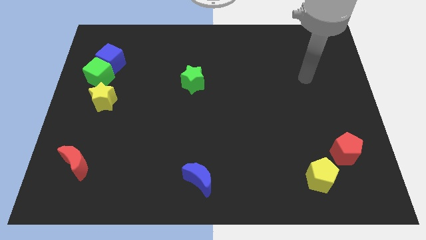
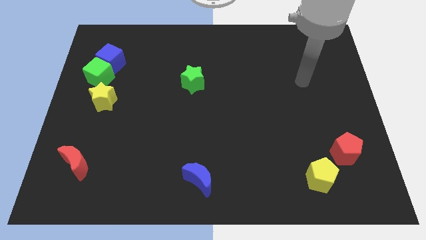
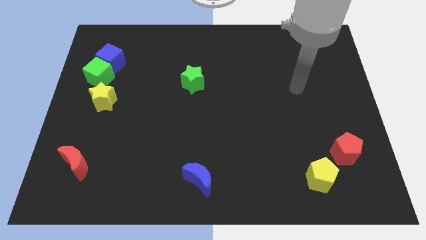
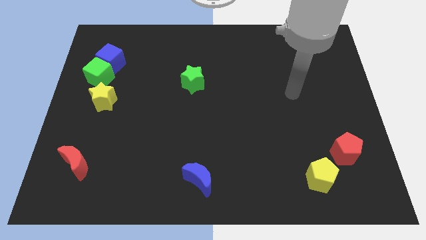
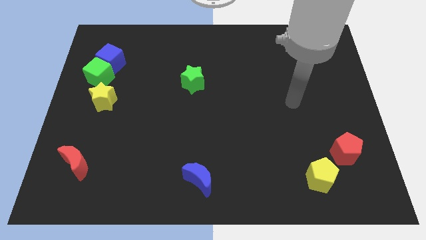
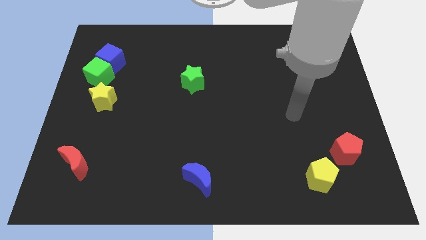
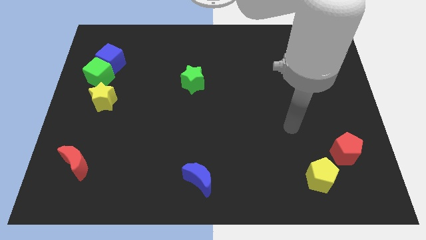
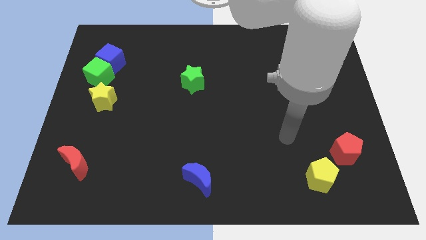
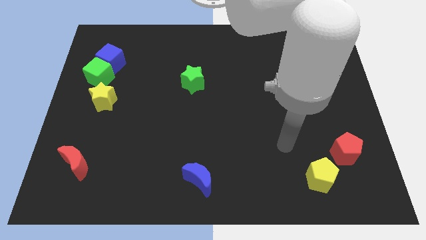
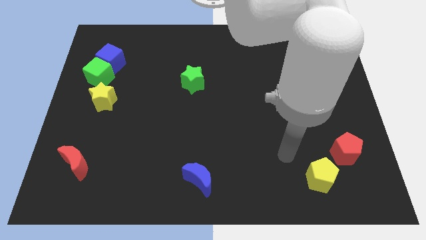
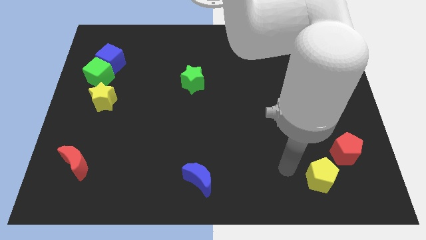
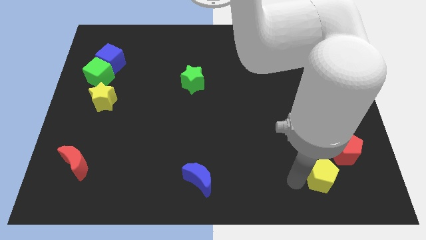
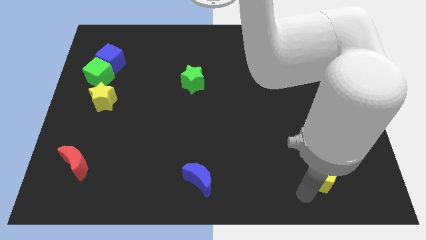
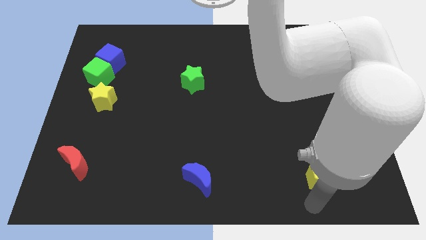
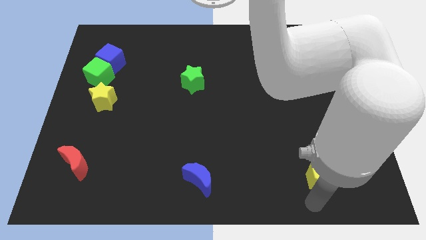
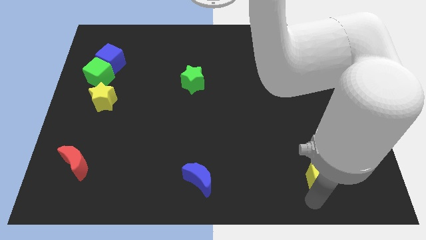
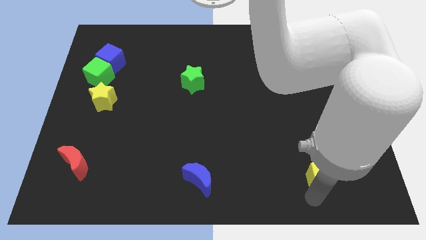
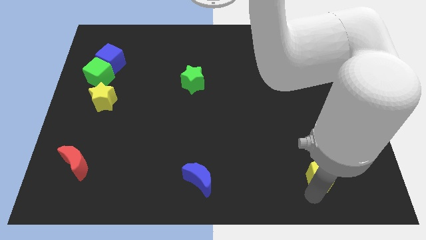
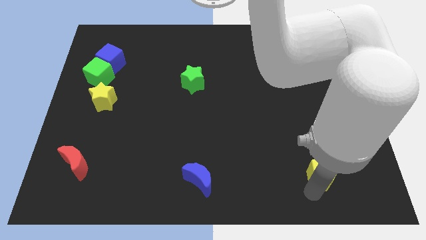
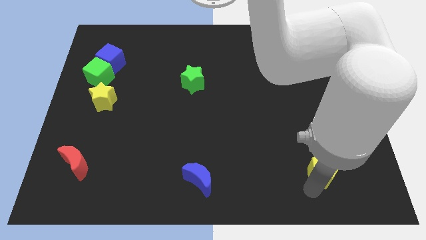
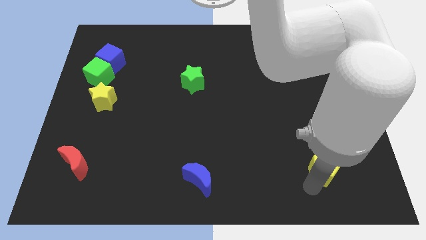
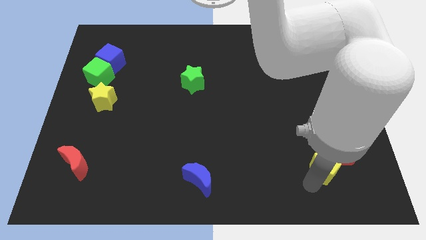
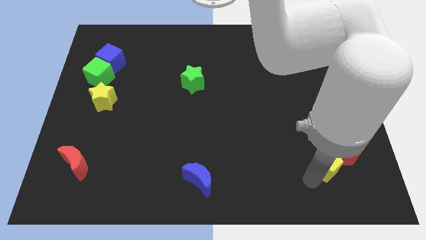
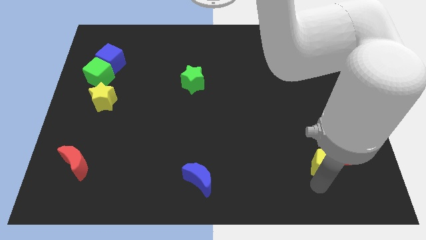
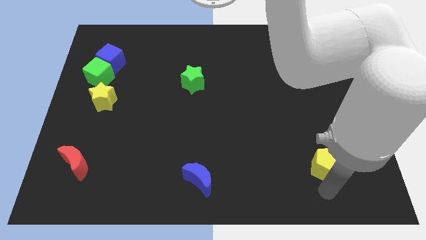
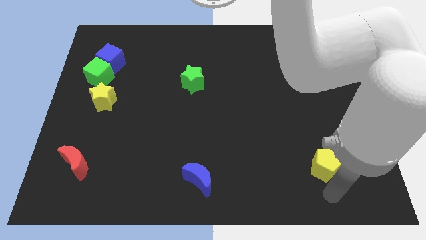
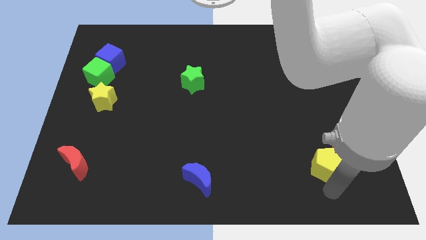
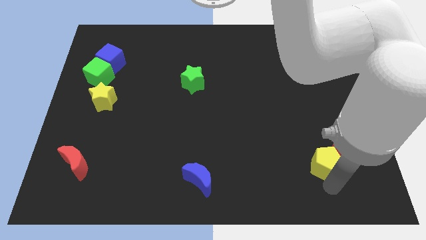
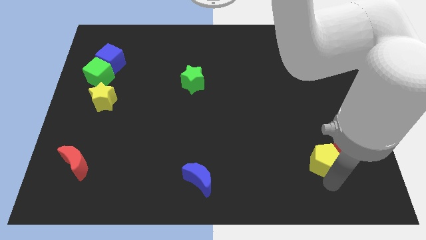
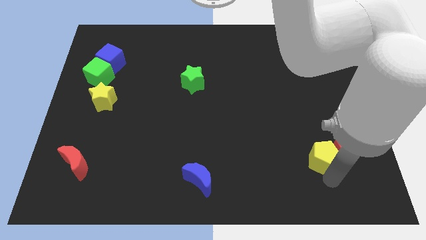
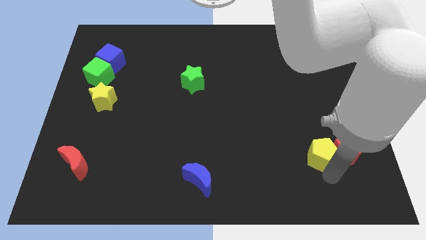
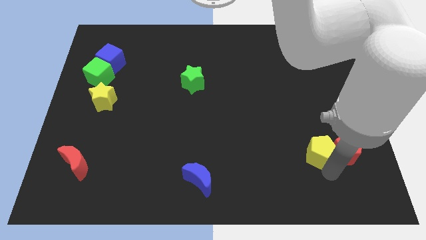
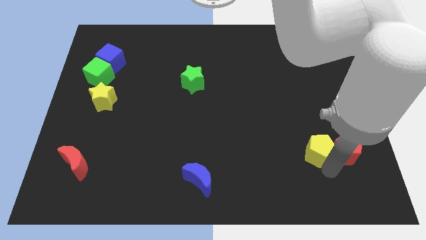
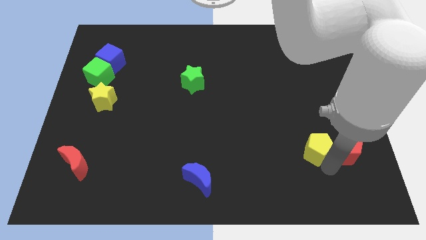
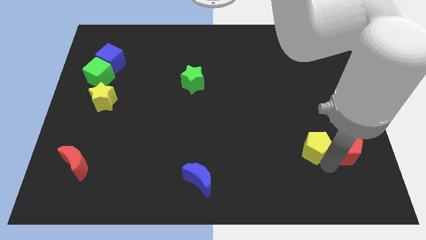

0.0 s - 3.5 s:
slightly move the yellow pentagon upwards

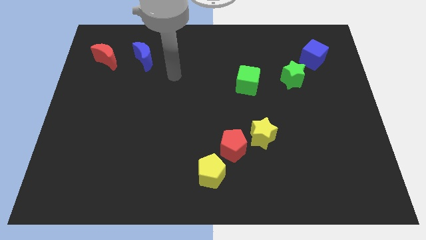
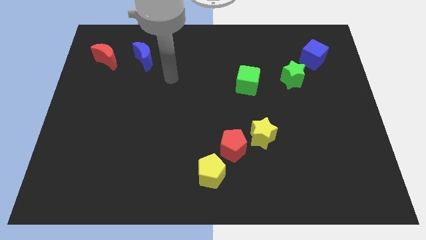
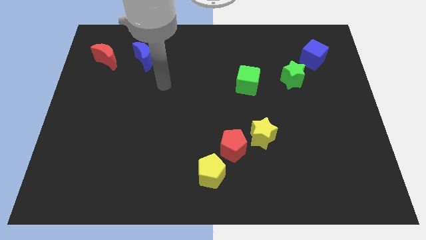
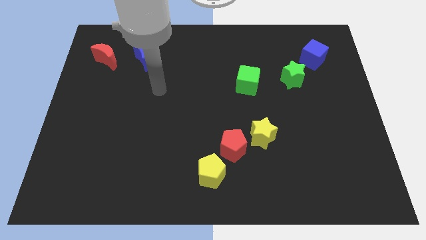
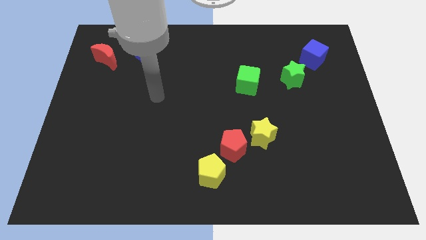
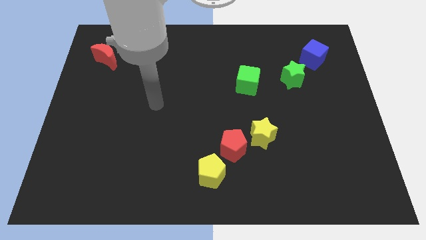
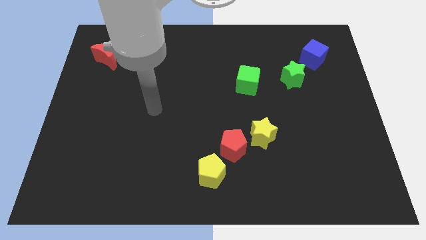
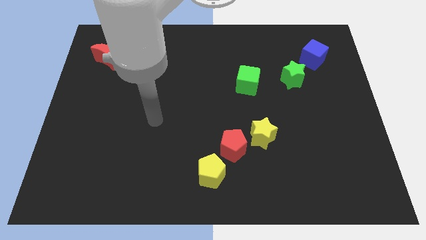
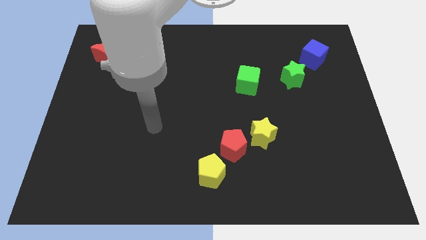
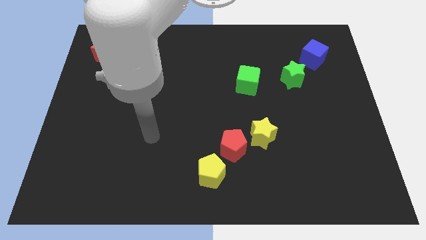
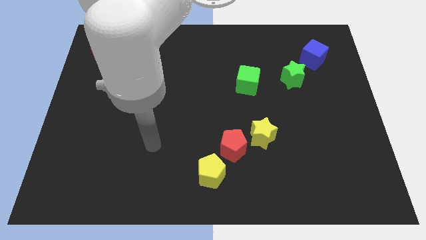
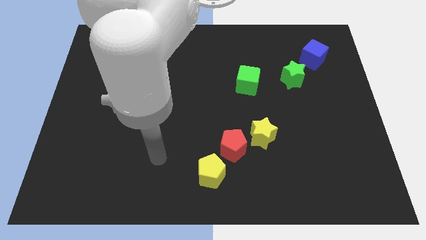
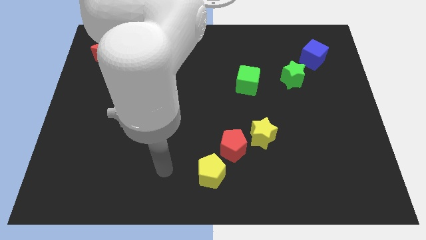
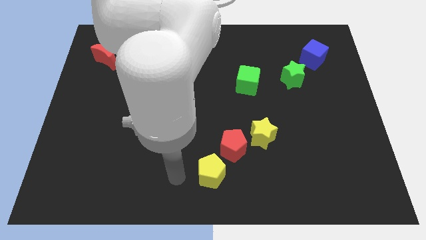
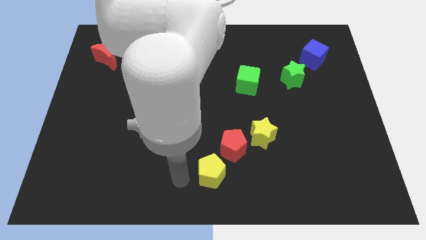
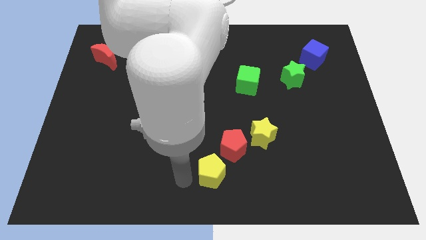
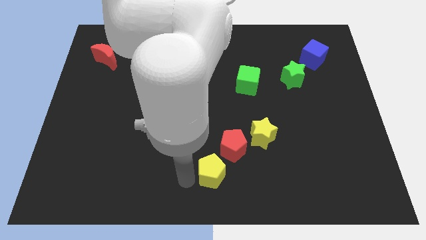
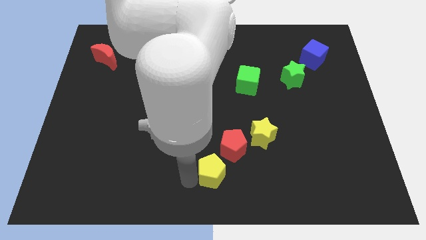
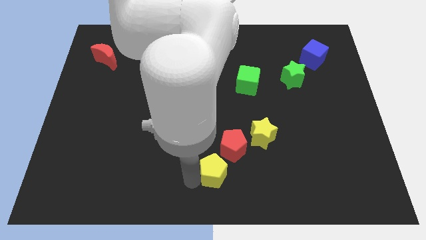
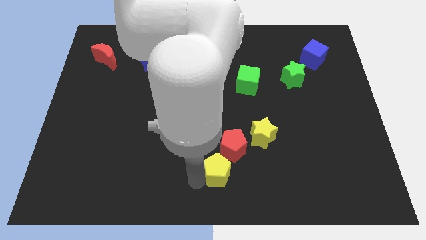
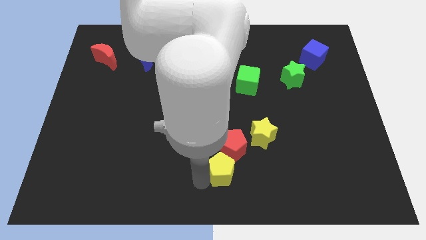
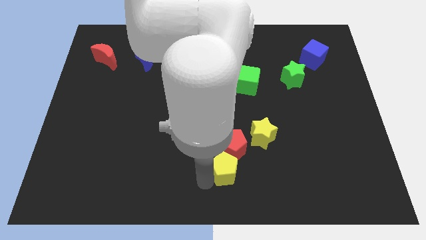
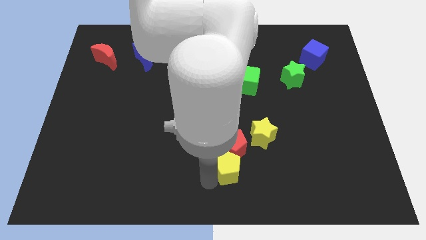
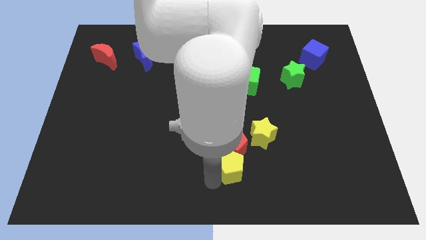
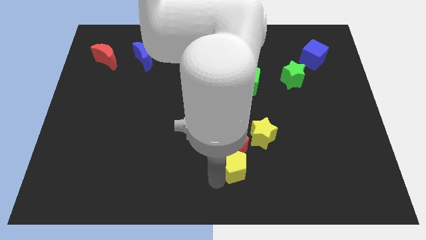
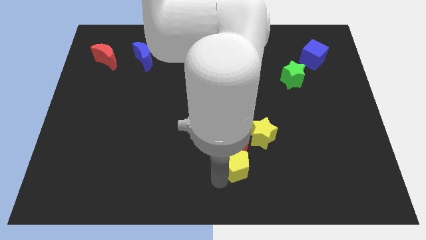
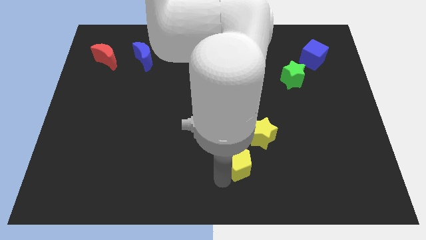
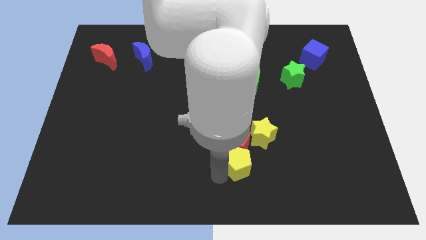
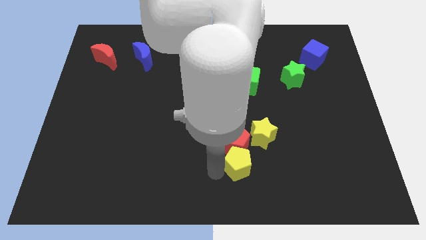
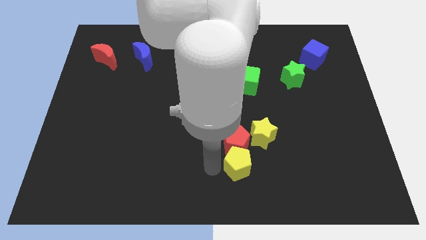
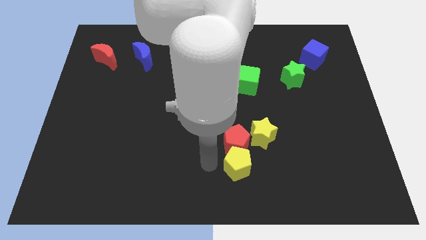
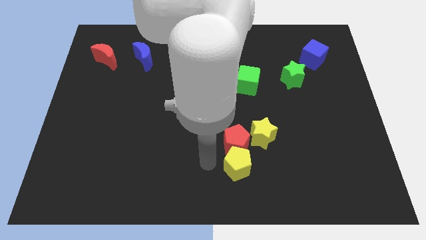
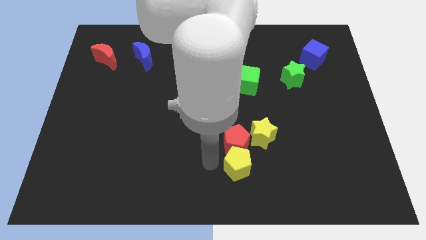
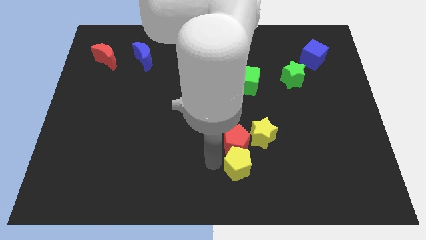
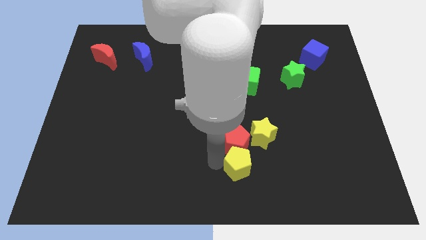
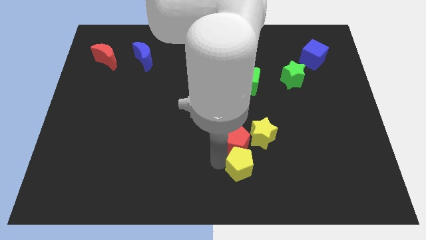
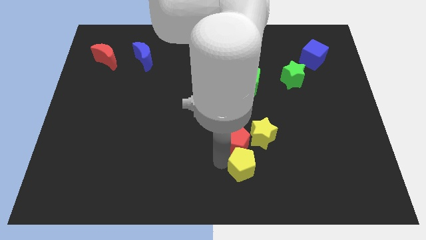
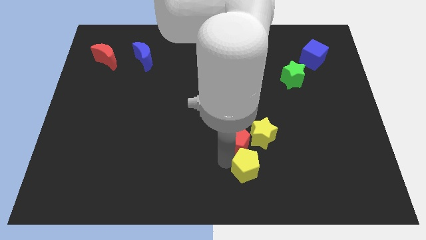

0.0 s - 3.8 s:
push the yellow pentagon to the right a bit

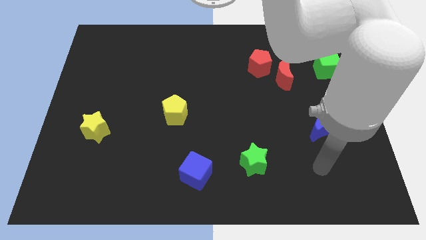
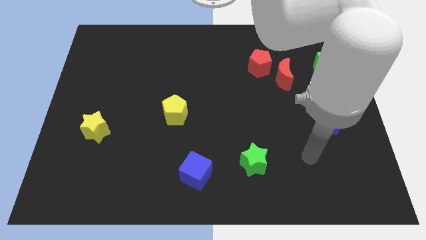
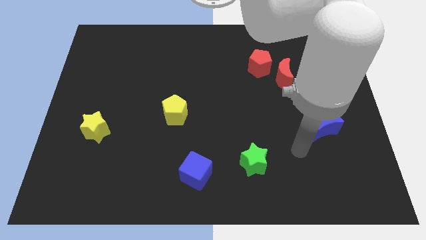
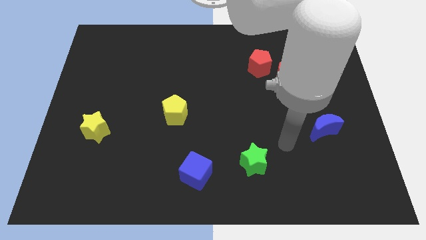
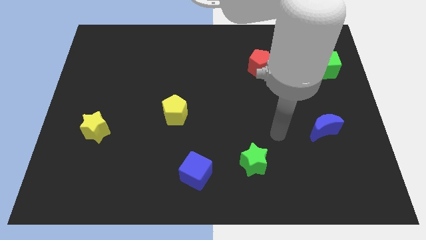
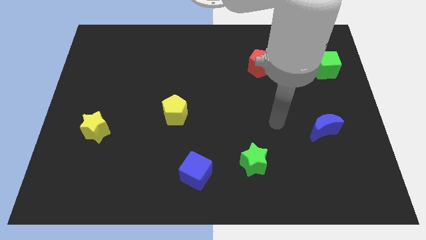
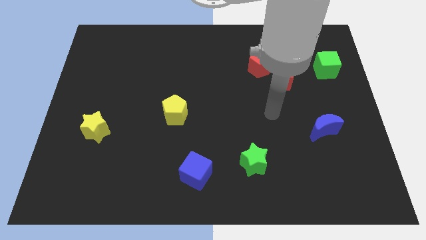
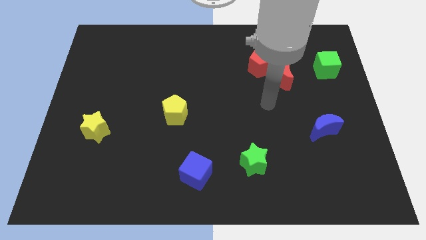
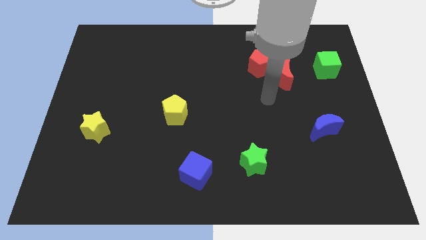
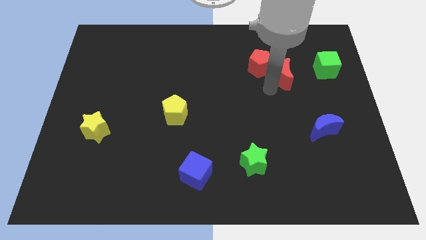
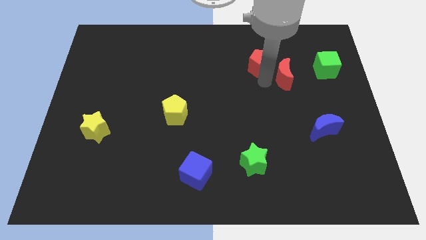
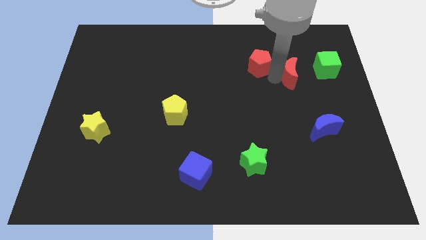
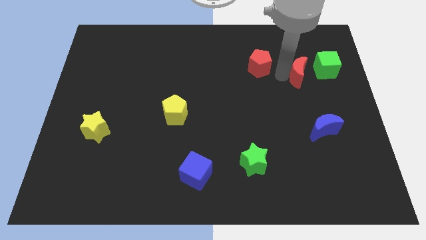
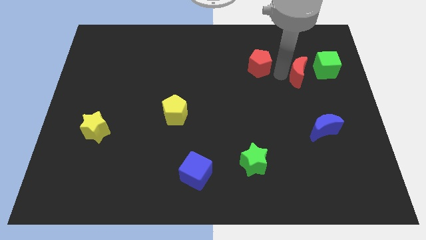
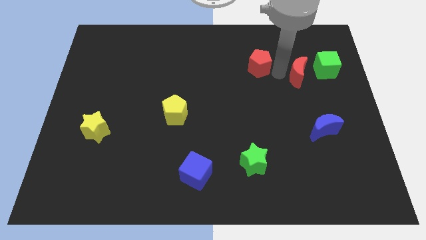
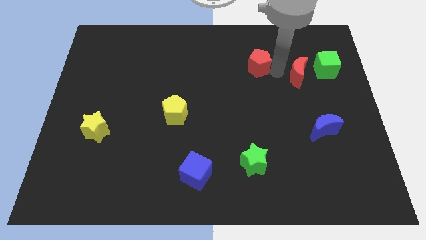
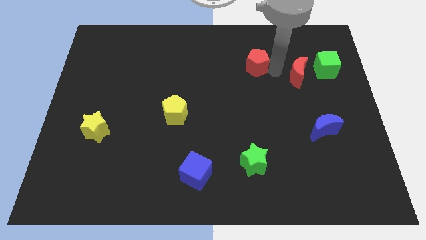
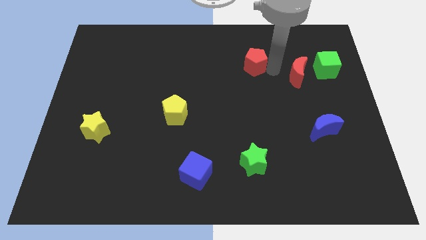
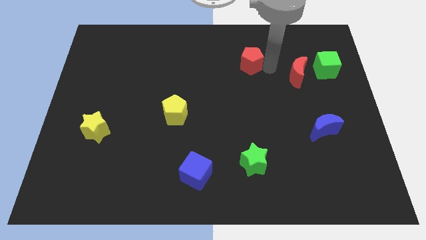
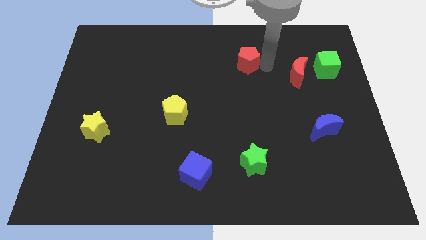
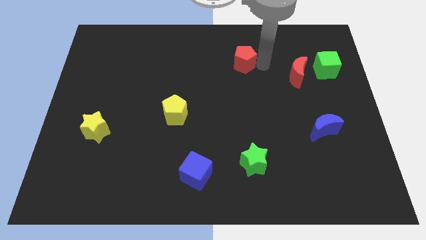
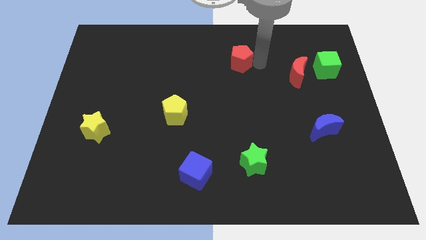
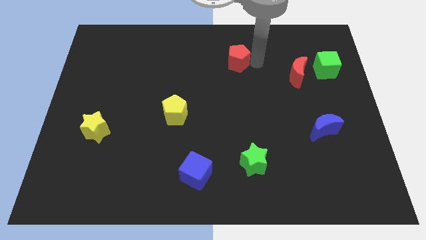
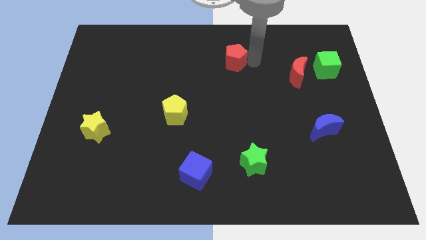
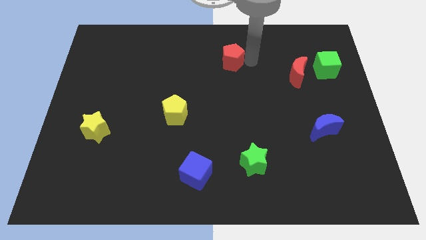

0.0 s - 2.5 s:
slide the red pentagon a little left
